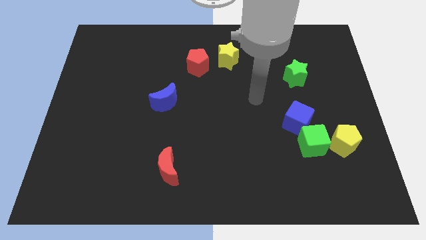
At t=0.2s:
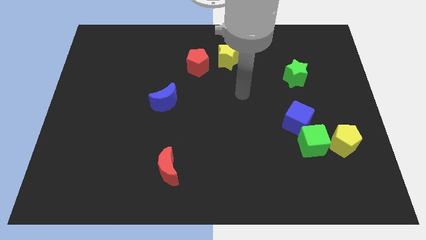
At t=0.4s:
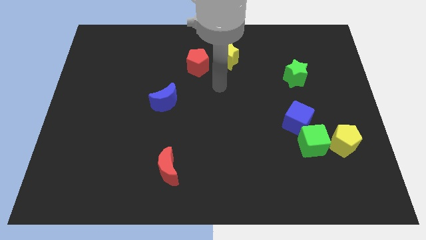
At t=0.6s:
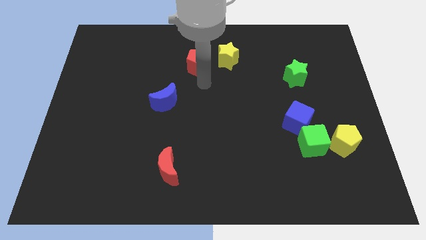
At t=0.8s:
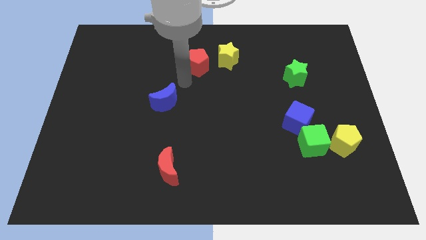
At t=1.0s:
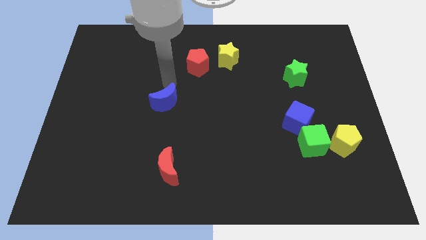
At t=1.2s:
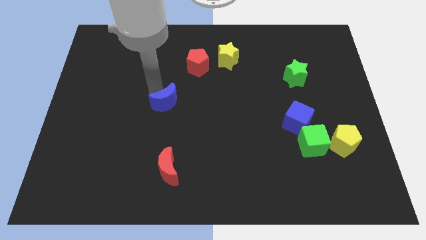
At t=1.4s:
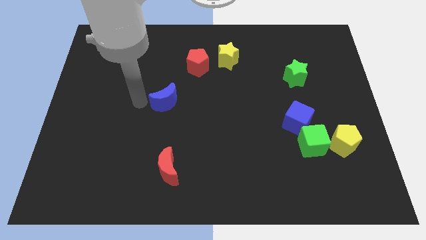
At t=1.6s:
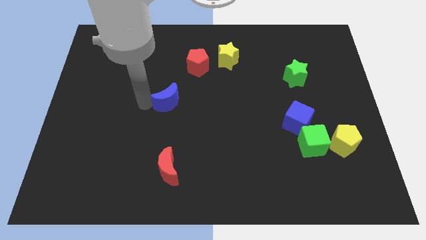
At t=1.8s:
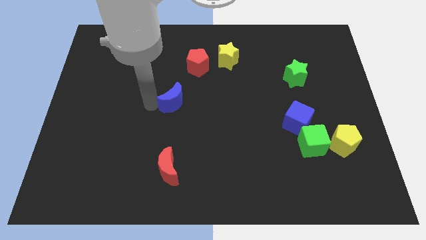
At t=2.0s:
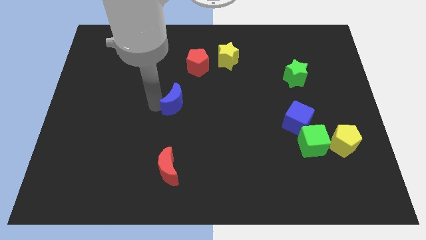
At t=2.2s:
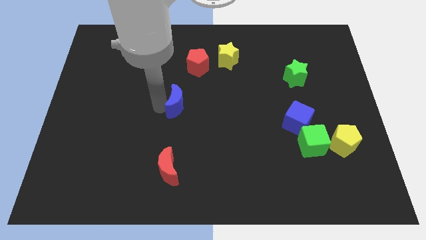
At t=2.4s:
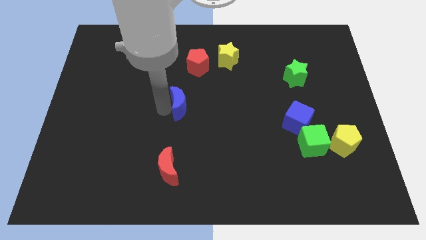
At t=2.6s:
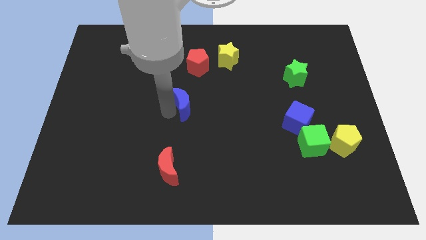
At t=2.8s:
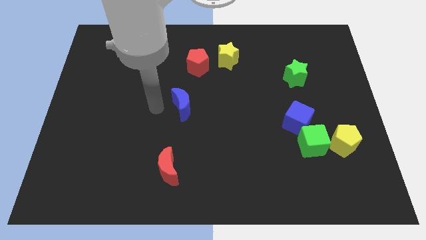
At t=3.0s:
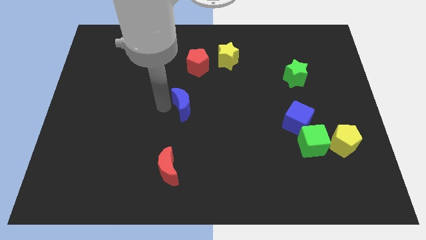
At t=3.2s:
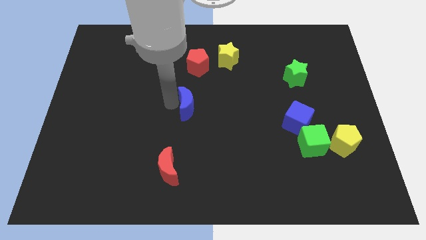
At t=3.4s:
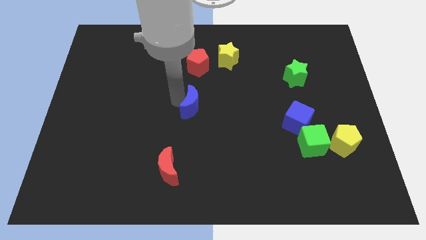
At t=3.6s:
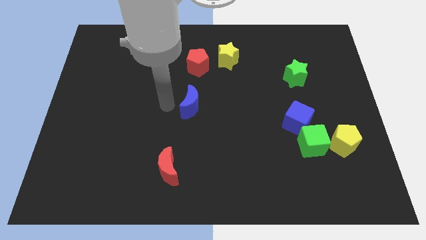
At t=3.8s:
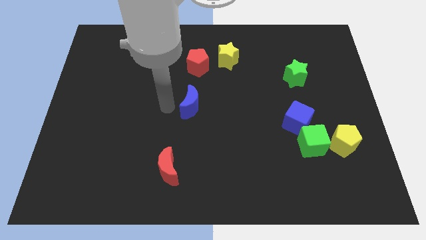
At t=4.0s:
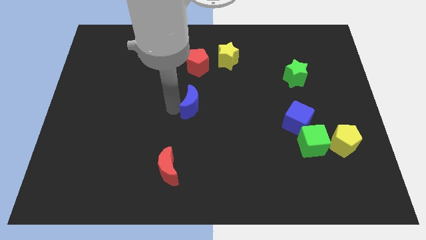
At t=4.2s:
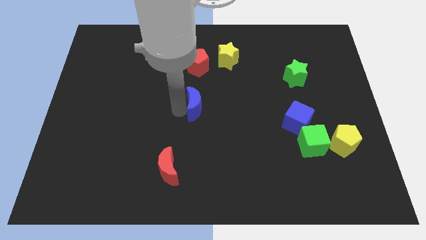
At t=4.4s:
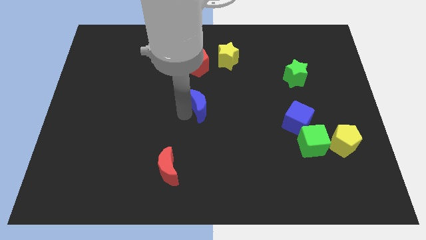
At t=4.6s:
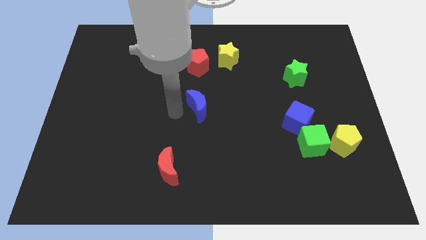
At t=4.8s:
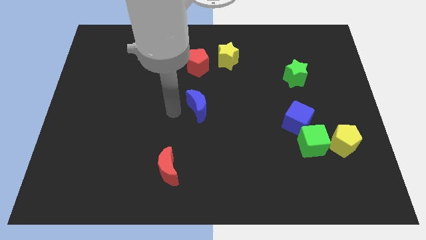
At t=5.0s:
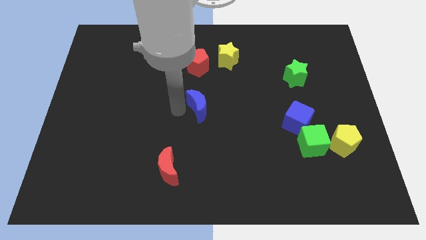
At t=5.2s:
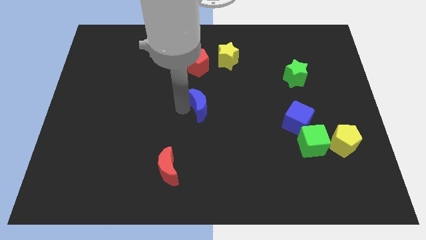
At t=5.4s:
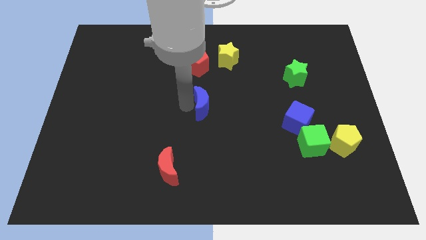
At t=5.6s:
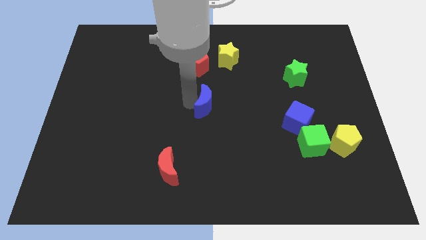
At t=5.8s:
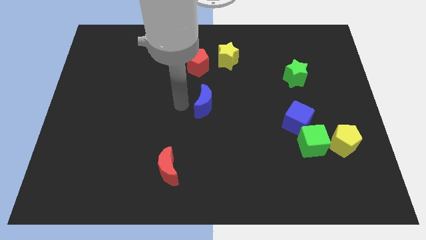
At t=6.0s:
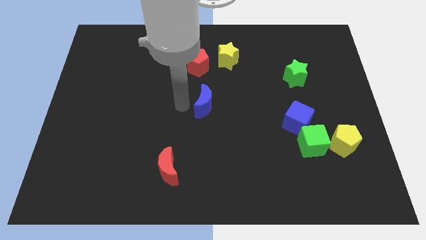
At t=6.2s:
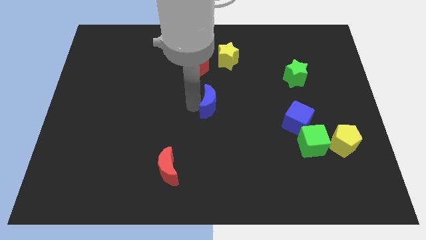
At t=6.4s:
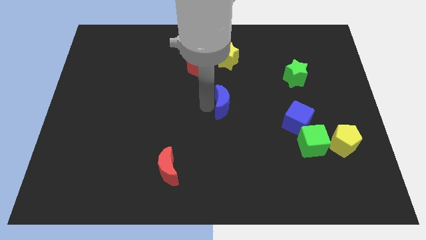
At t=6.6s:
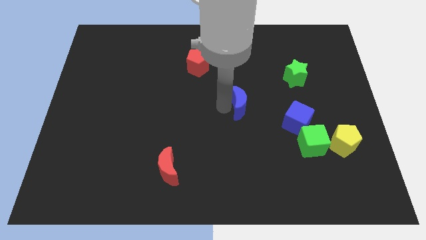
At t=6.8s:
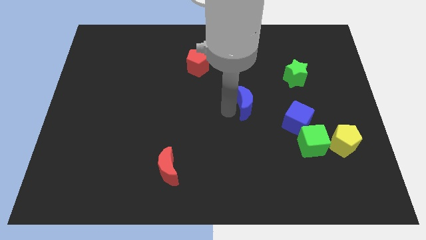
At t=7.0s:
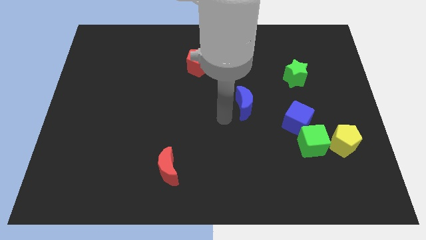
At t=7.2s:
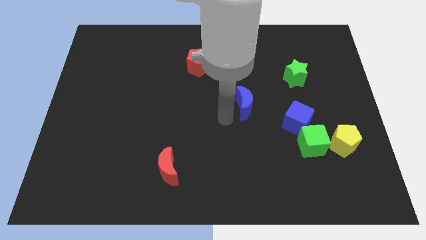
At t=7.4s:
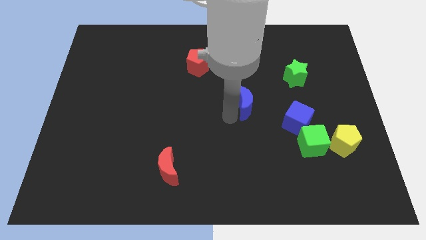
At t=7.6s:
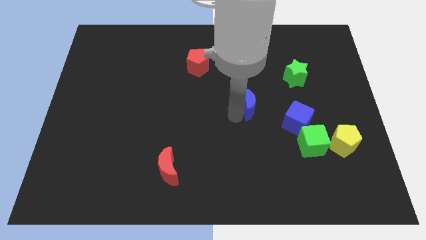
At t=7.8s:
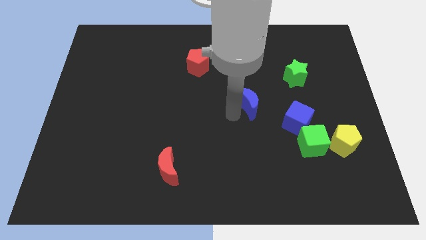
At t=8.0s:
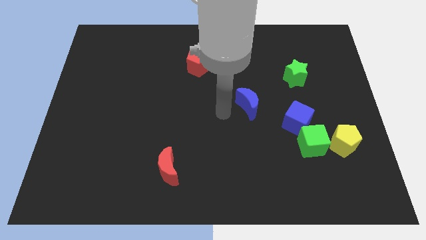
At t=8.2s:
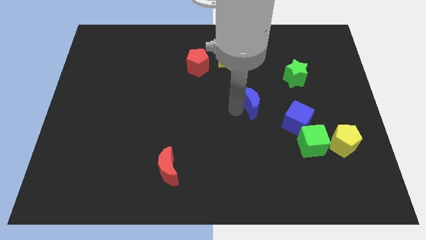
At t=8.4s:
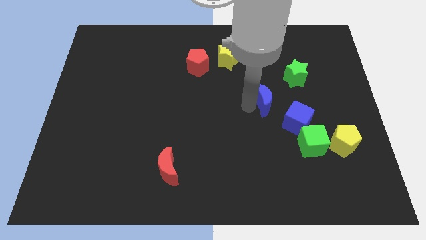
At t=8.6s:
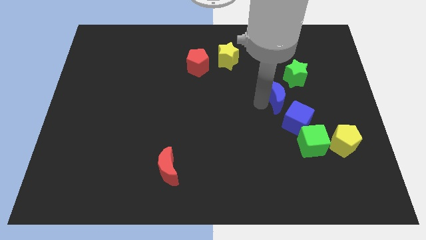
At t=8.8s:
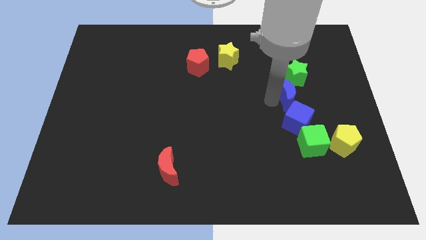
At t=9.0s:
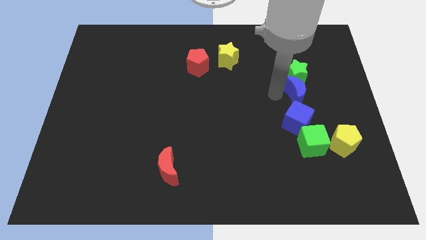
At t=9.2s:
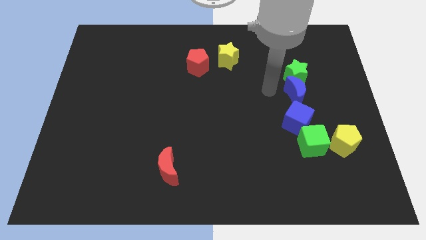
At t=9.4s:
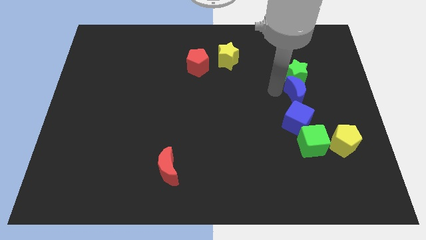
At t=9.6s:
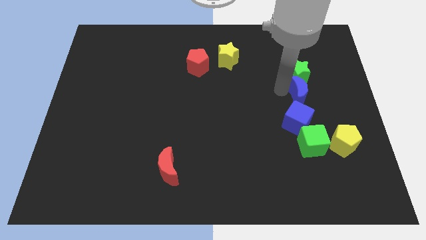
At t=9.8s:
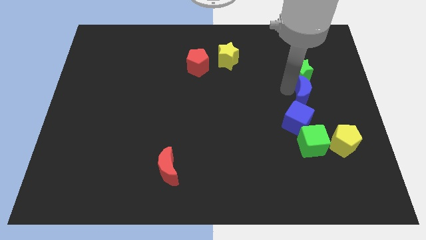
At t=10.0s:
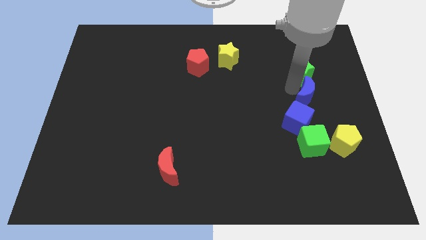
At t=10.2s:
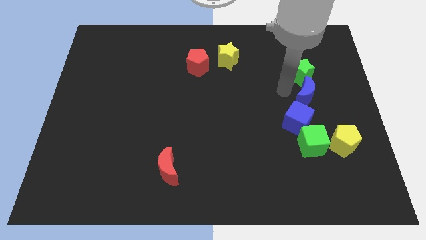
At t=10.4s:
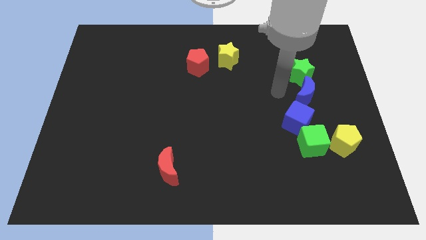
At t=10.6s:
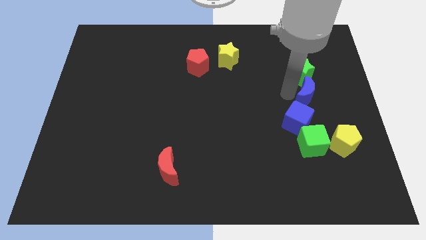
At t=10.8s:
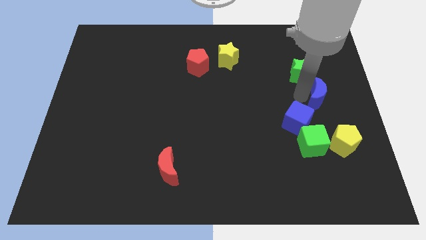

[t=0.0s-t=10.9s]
push the blue moon to the right side of the board

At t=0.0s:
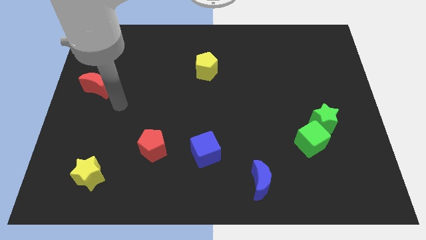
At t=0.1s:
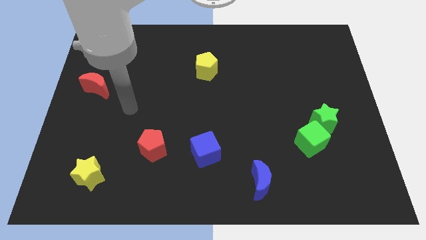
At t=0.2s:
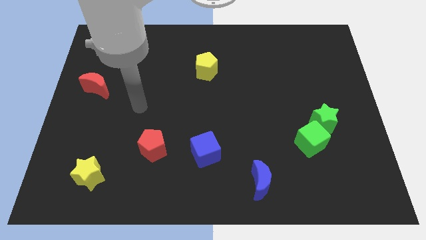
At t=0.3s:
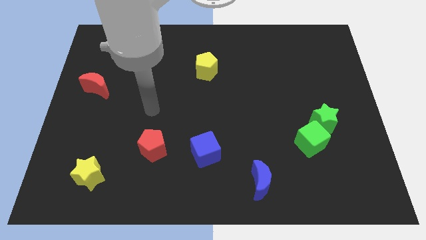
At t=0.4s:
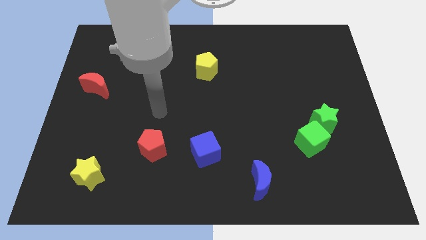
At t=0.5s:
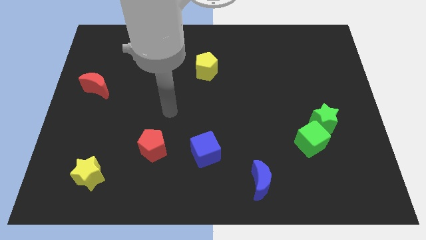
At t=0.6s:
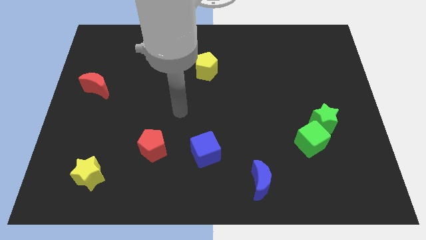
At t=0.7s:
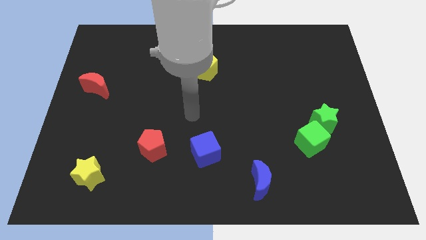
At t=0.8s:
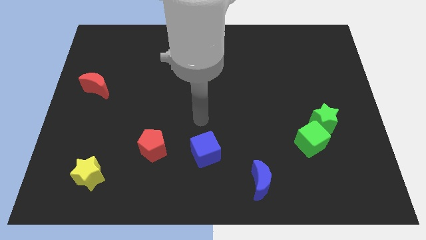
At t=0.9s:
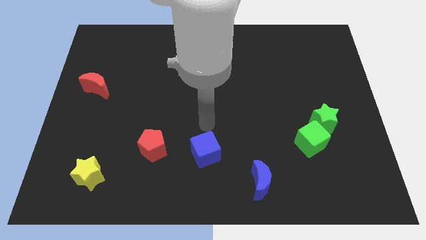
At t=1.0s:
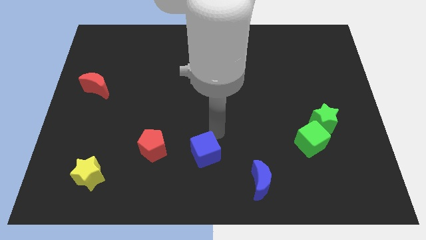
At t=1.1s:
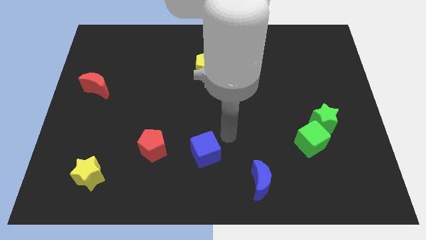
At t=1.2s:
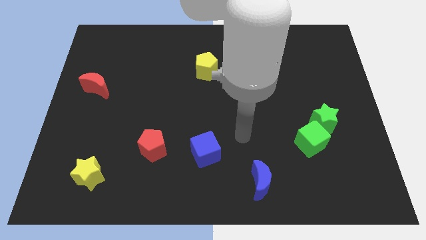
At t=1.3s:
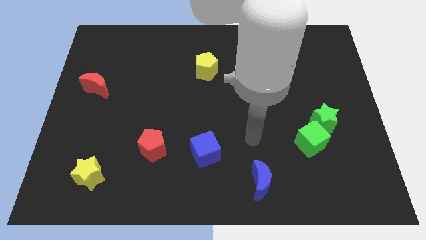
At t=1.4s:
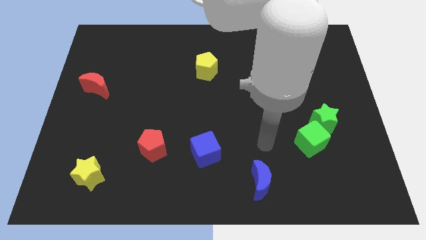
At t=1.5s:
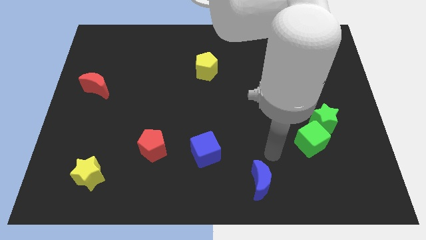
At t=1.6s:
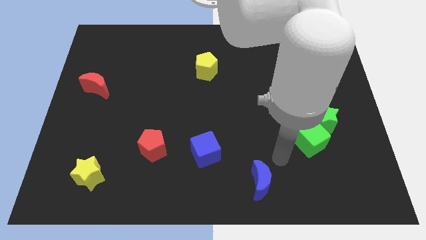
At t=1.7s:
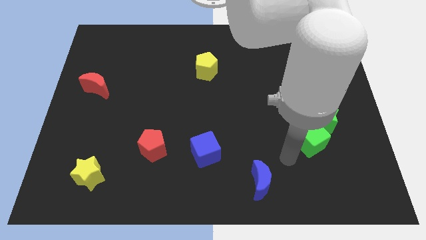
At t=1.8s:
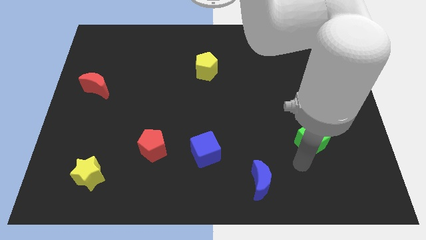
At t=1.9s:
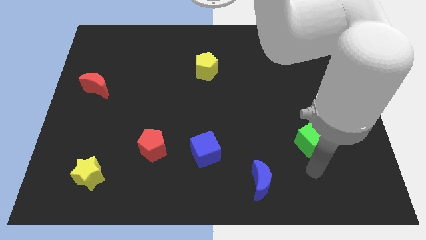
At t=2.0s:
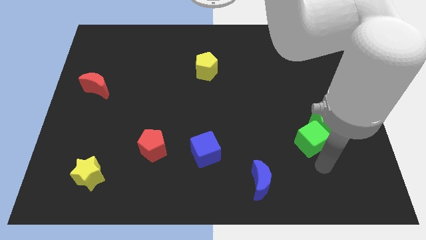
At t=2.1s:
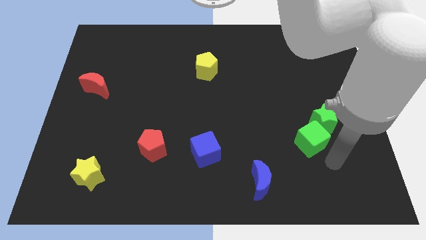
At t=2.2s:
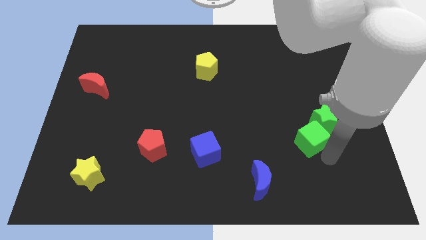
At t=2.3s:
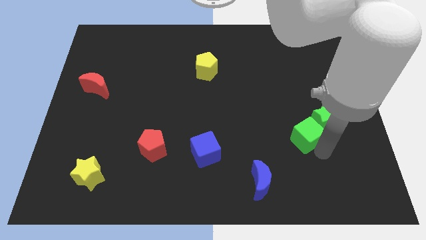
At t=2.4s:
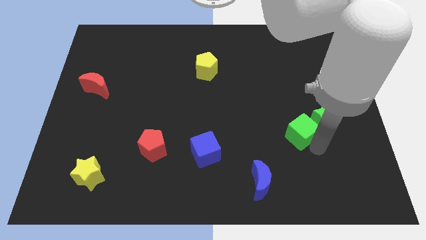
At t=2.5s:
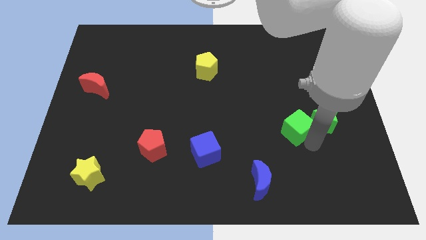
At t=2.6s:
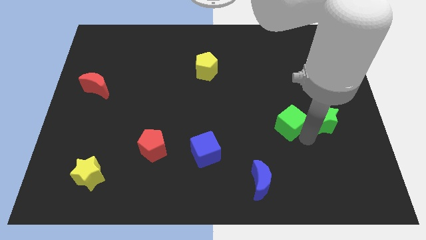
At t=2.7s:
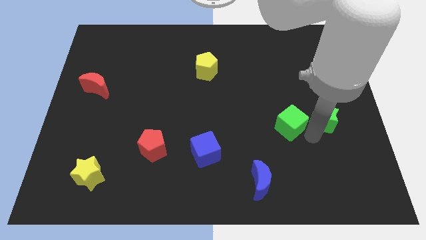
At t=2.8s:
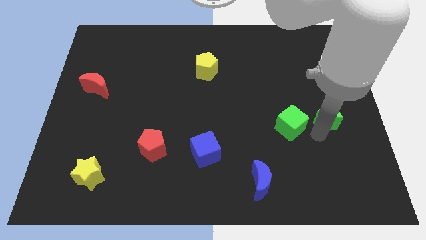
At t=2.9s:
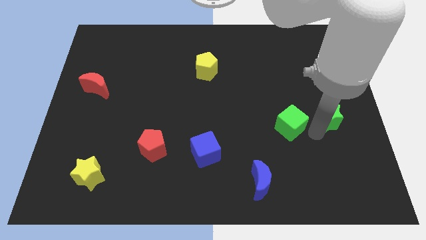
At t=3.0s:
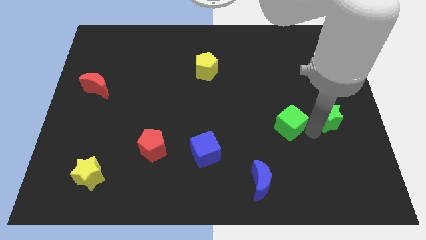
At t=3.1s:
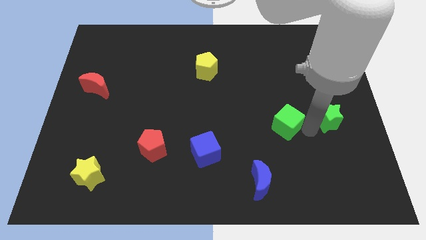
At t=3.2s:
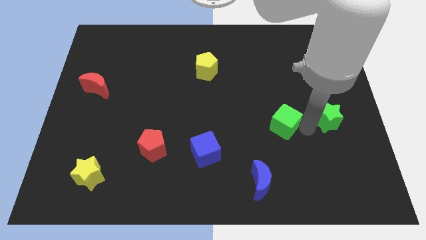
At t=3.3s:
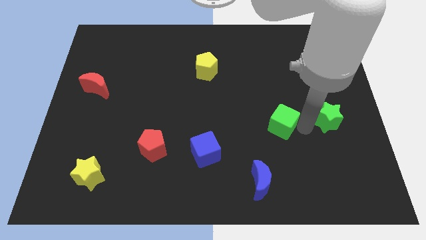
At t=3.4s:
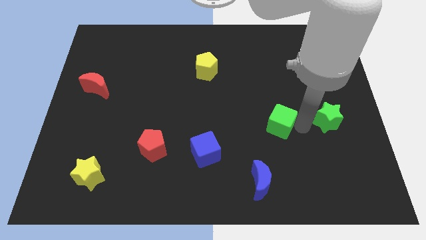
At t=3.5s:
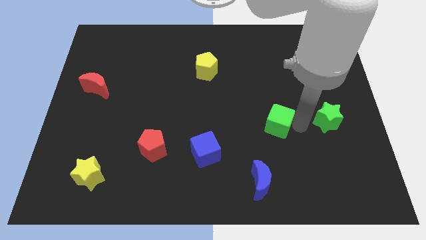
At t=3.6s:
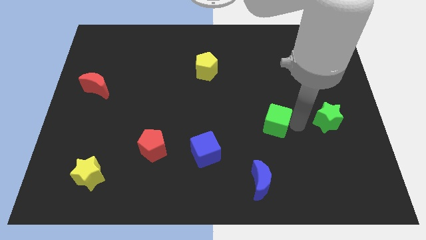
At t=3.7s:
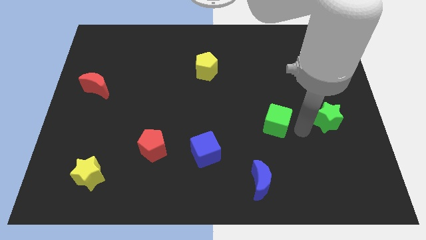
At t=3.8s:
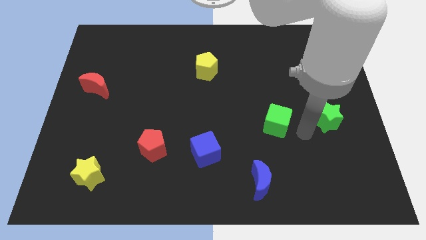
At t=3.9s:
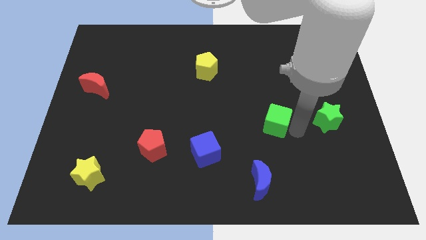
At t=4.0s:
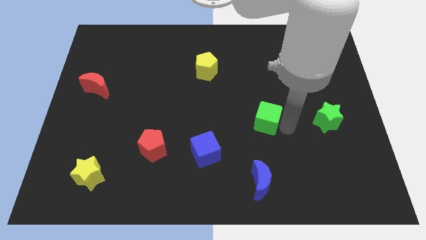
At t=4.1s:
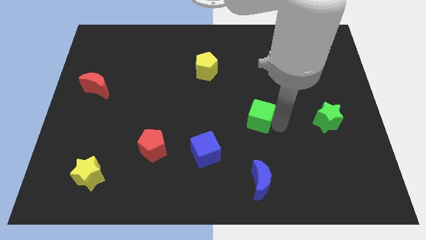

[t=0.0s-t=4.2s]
put the green cube to the middle of the board
